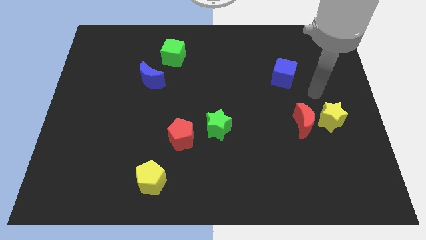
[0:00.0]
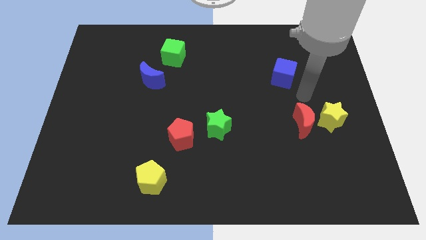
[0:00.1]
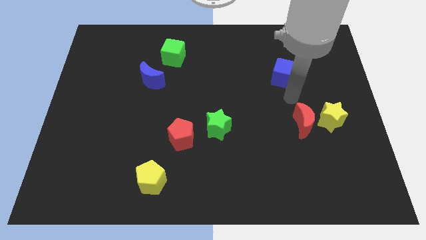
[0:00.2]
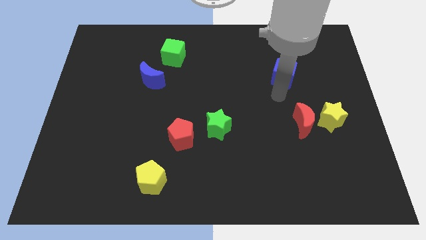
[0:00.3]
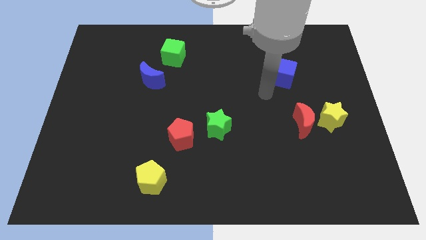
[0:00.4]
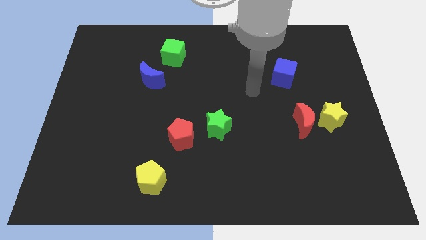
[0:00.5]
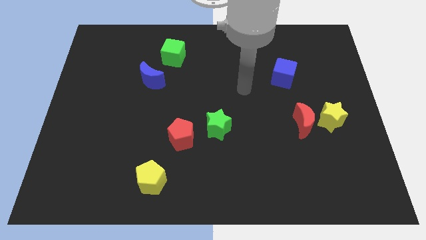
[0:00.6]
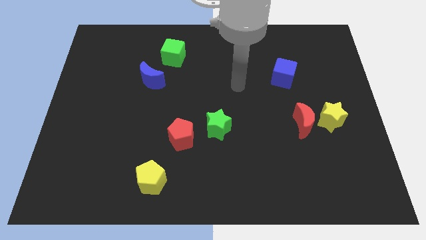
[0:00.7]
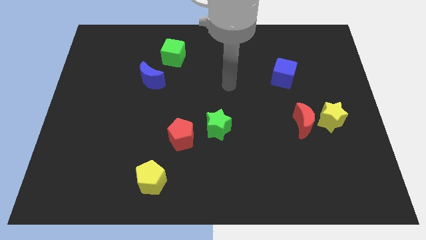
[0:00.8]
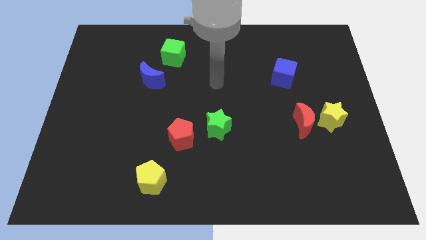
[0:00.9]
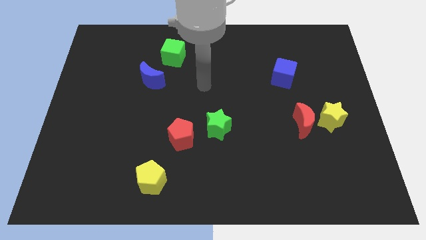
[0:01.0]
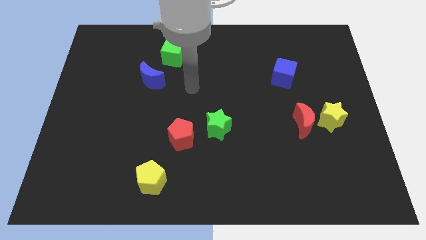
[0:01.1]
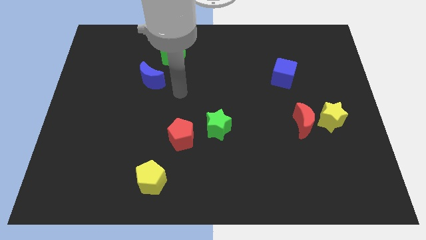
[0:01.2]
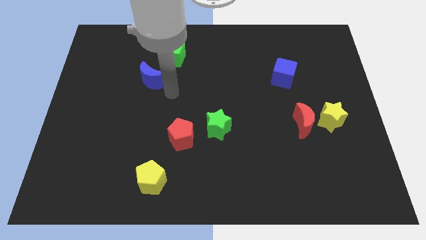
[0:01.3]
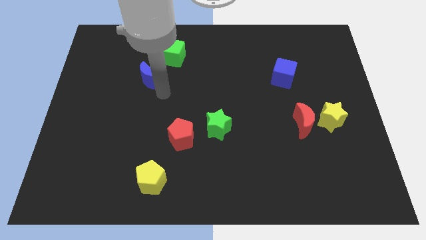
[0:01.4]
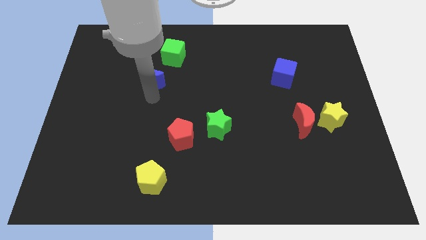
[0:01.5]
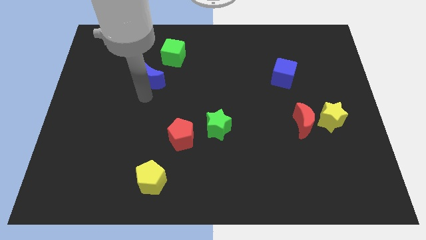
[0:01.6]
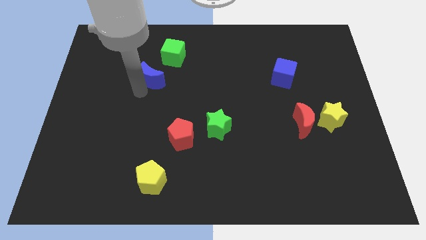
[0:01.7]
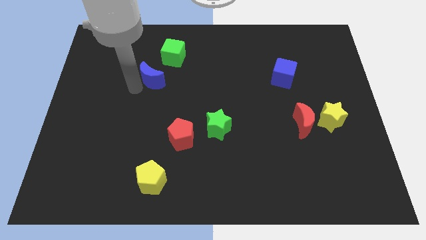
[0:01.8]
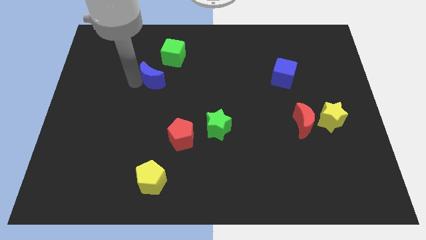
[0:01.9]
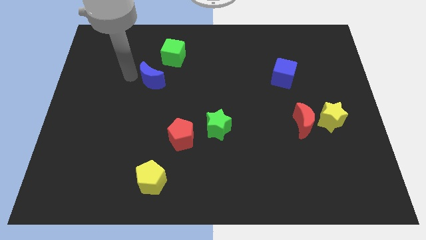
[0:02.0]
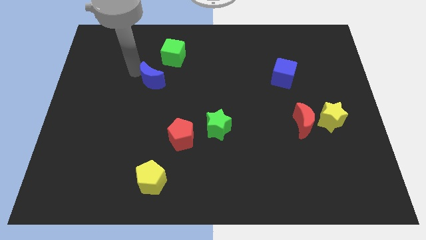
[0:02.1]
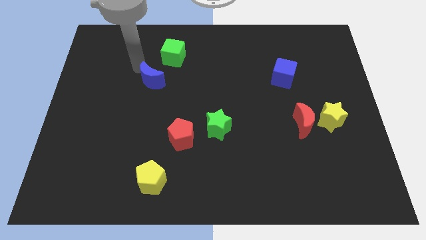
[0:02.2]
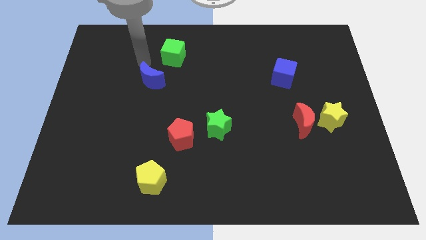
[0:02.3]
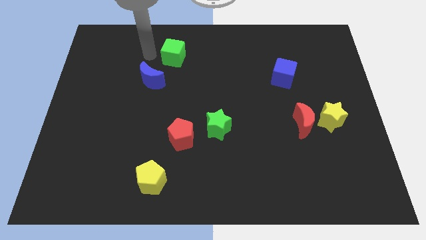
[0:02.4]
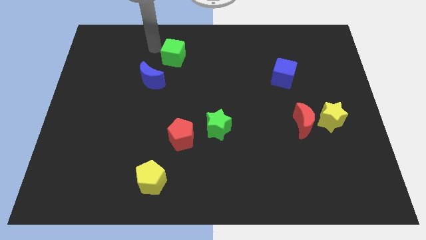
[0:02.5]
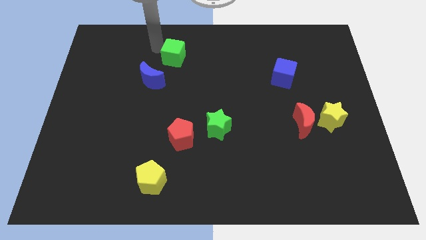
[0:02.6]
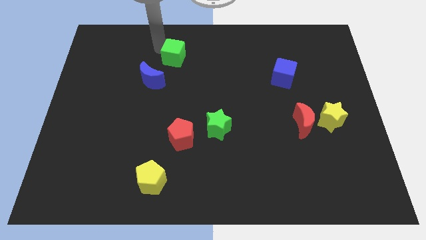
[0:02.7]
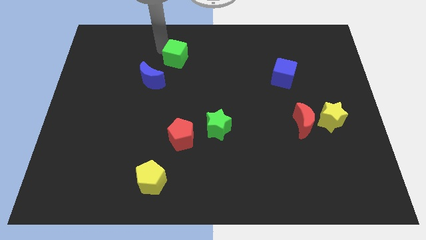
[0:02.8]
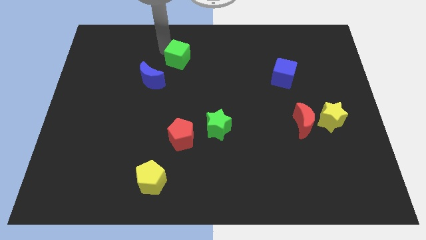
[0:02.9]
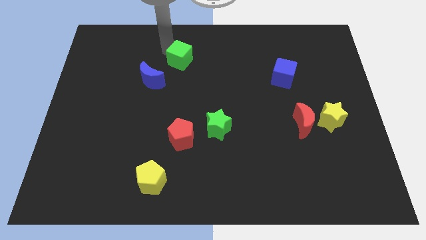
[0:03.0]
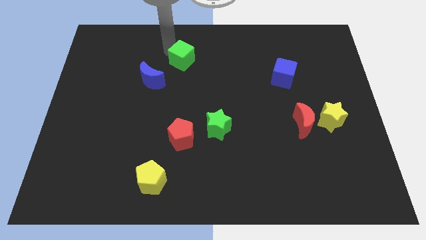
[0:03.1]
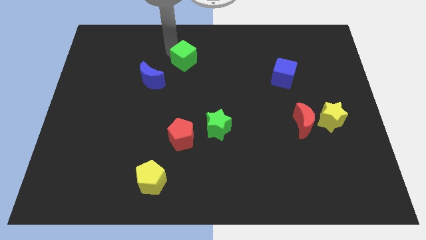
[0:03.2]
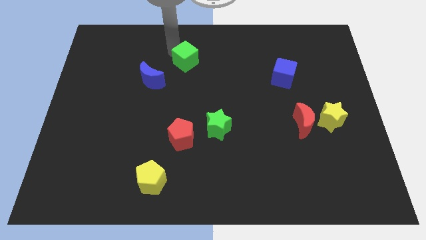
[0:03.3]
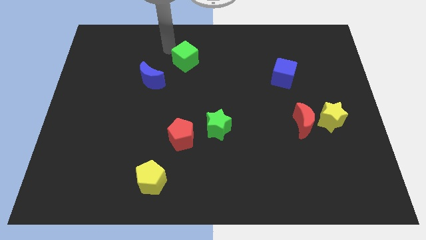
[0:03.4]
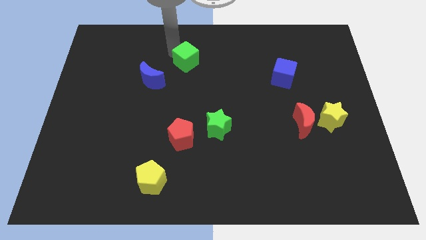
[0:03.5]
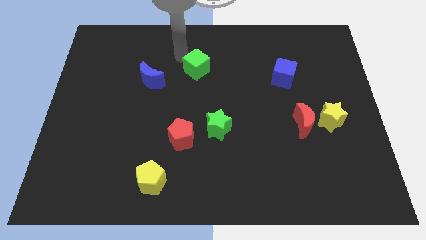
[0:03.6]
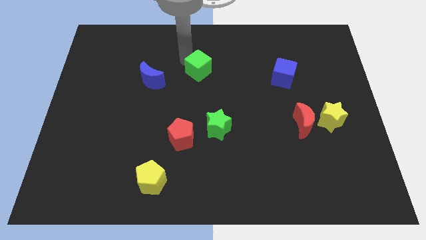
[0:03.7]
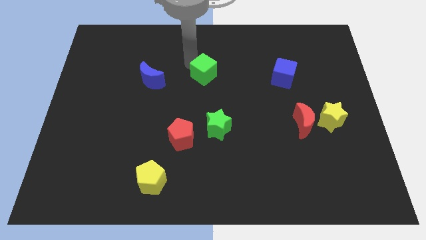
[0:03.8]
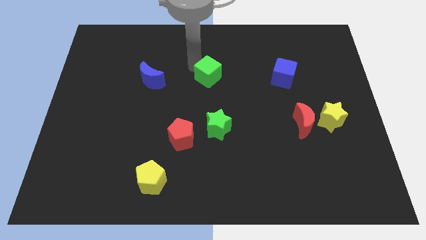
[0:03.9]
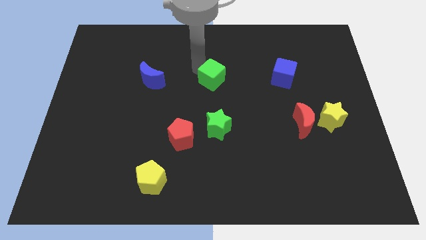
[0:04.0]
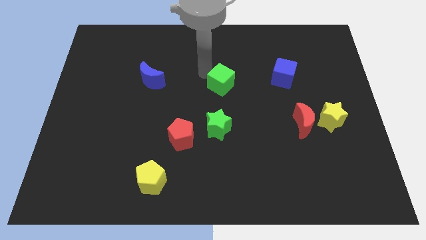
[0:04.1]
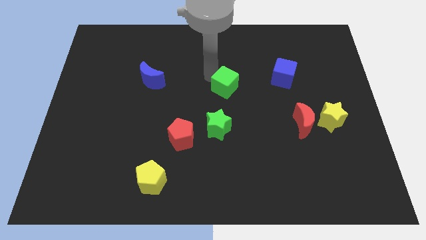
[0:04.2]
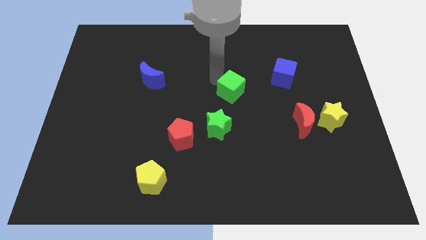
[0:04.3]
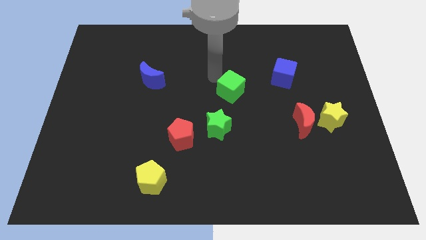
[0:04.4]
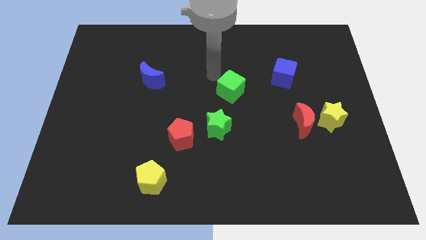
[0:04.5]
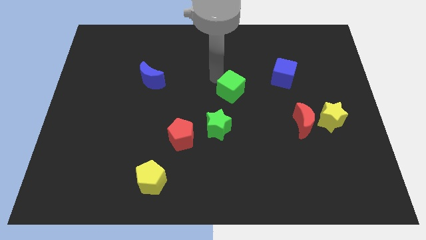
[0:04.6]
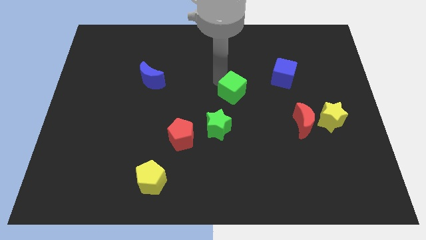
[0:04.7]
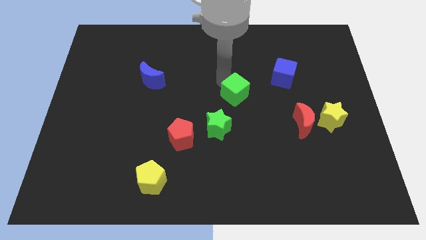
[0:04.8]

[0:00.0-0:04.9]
push the green cube diagonally down and right

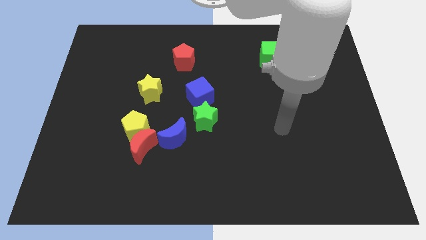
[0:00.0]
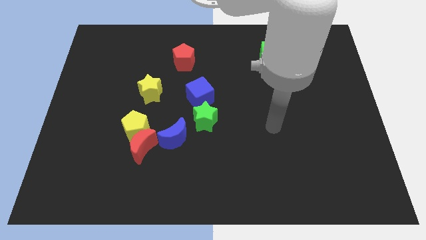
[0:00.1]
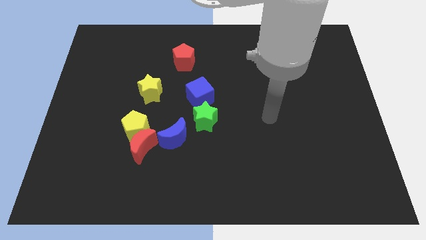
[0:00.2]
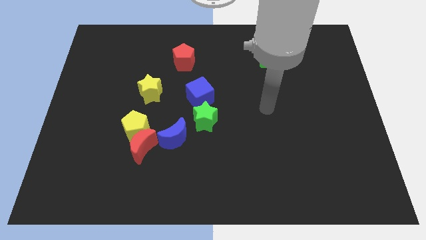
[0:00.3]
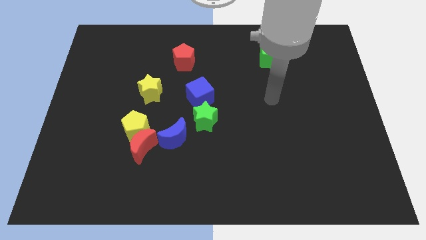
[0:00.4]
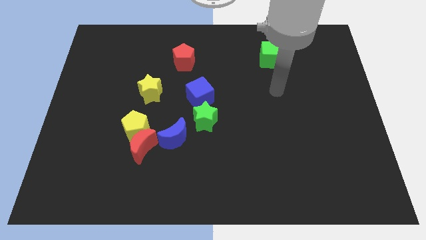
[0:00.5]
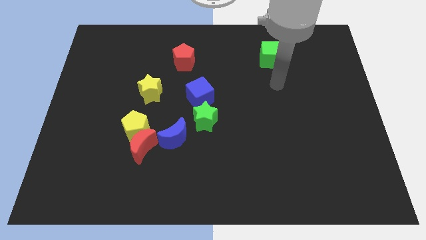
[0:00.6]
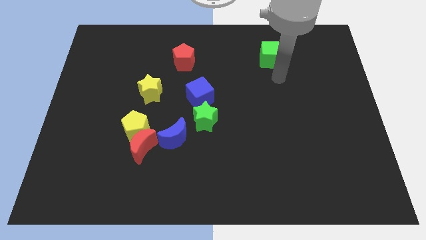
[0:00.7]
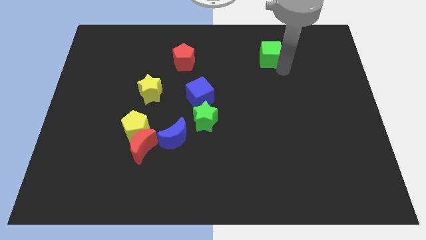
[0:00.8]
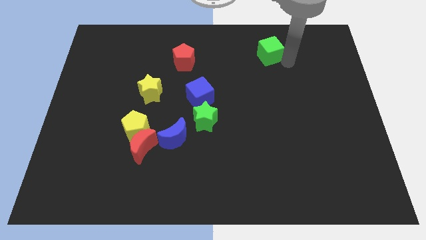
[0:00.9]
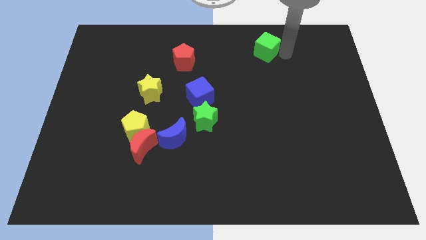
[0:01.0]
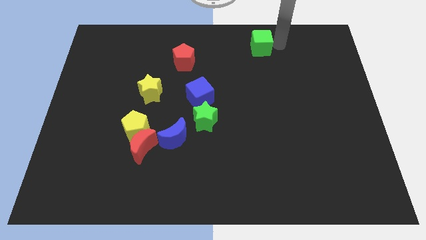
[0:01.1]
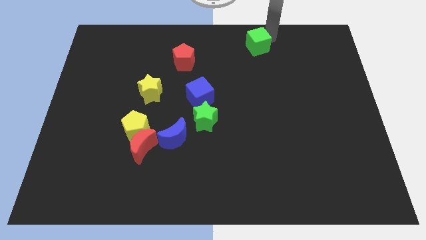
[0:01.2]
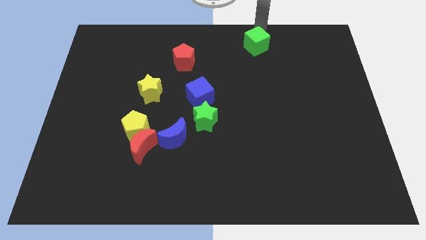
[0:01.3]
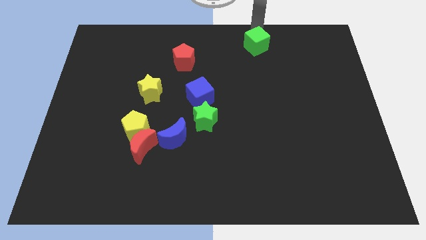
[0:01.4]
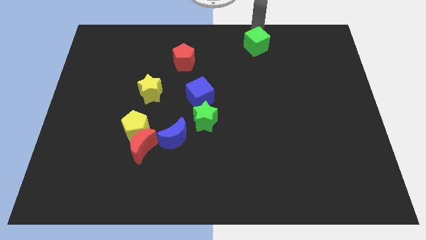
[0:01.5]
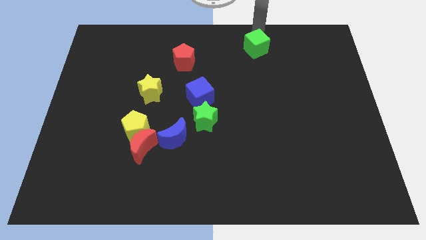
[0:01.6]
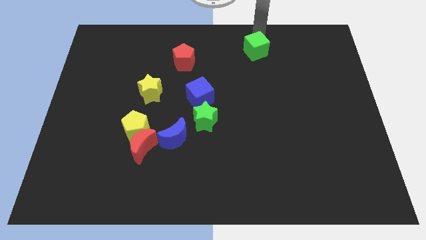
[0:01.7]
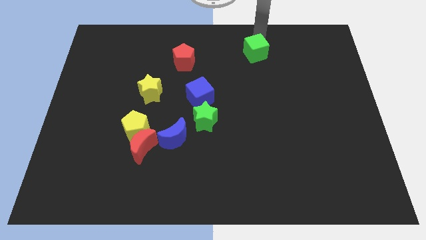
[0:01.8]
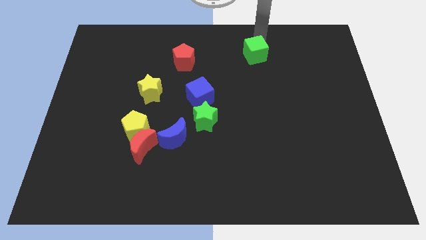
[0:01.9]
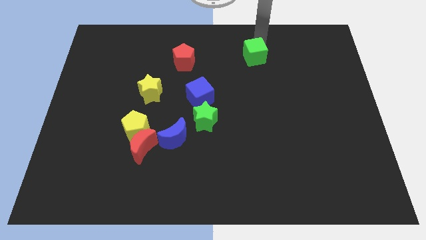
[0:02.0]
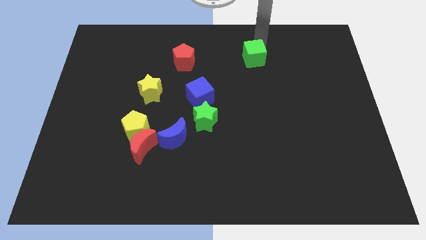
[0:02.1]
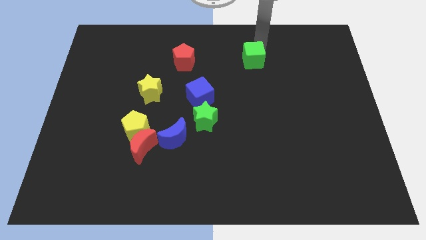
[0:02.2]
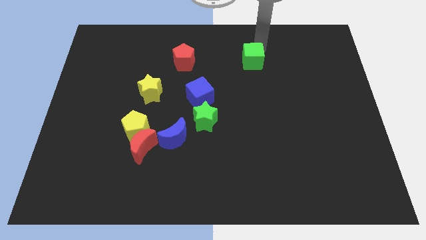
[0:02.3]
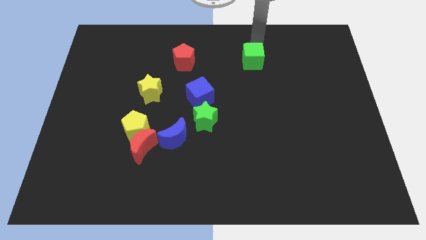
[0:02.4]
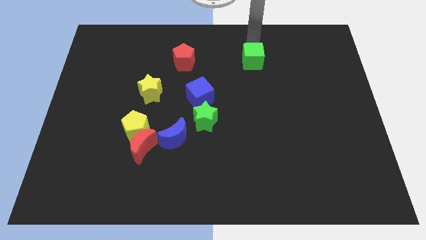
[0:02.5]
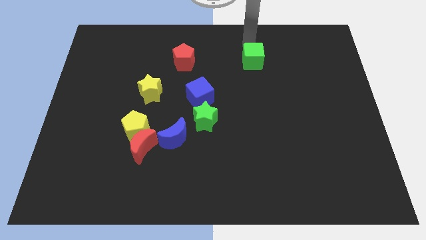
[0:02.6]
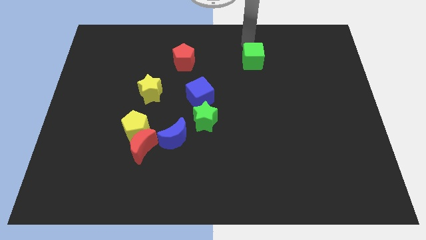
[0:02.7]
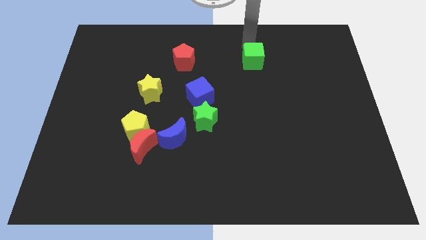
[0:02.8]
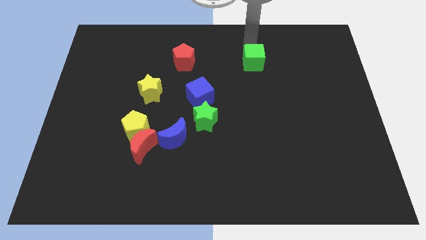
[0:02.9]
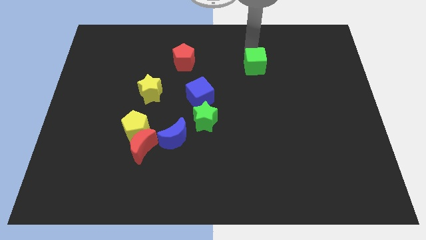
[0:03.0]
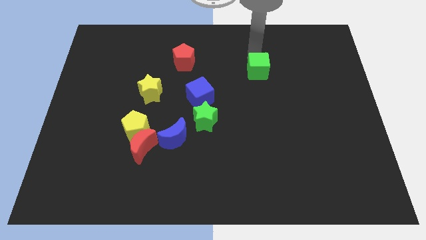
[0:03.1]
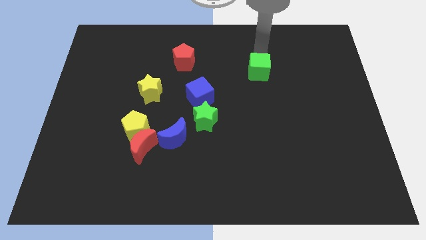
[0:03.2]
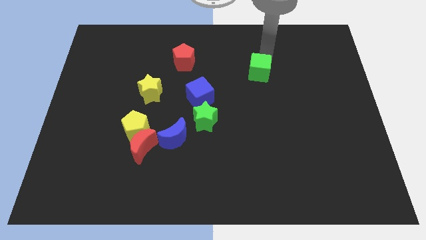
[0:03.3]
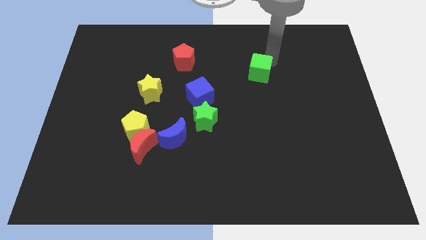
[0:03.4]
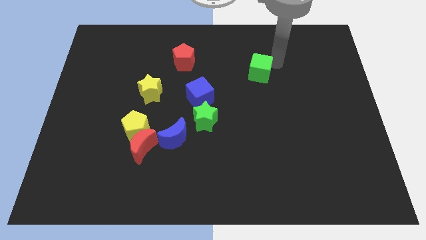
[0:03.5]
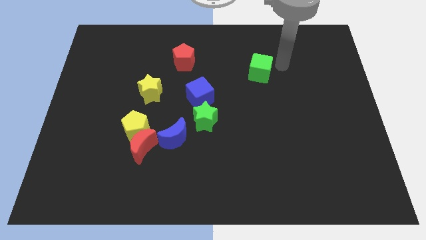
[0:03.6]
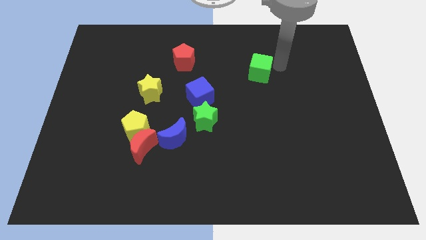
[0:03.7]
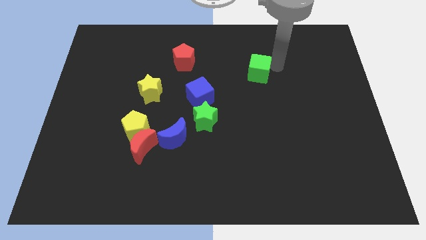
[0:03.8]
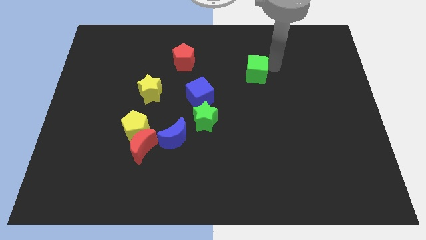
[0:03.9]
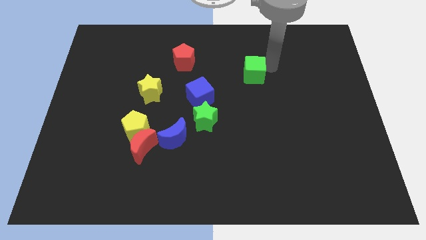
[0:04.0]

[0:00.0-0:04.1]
push the green cube somewhat diagonally downwards and left
